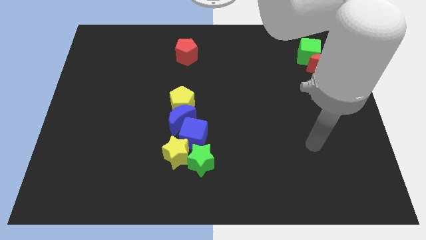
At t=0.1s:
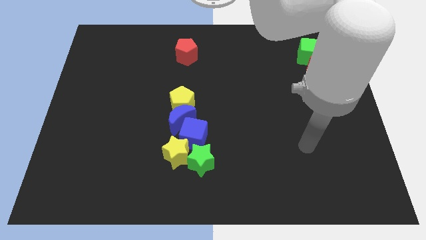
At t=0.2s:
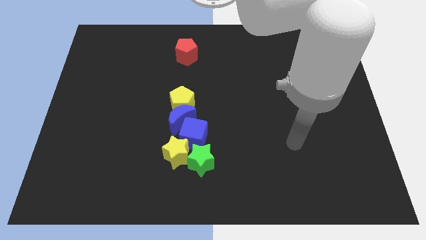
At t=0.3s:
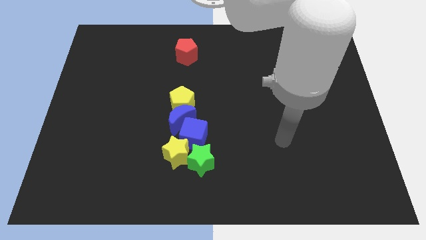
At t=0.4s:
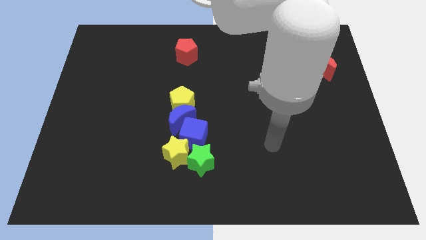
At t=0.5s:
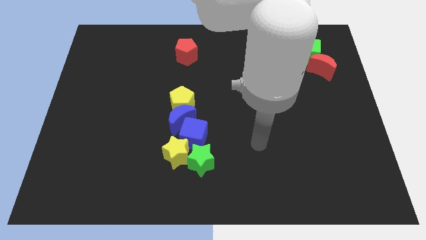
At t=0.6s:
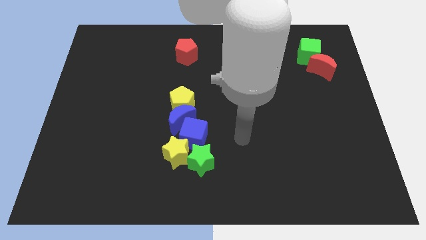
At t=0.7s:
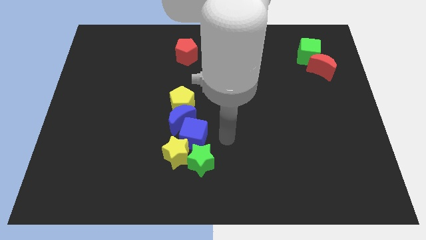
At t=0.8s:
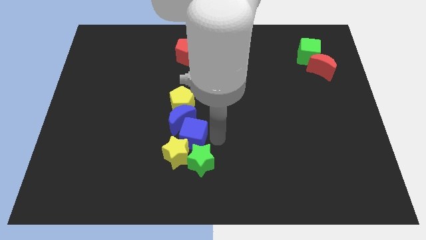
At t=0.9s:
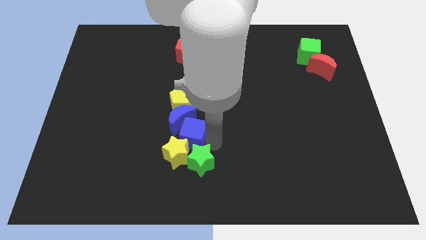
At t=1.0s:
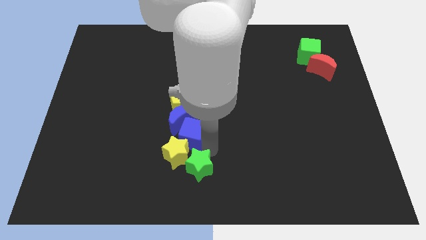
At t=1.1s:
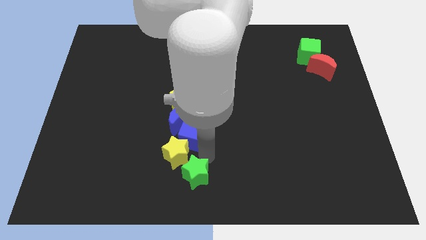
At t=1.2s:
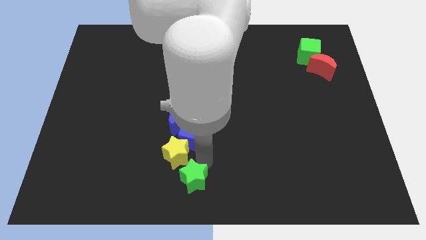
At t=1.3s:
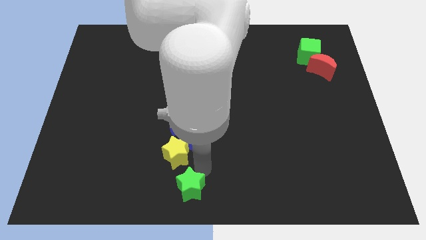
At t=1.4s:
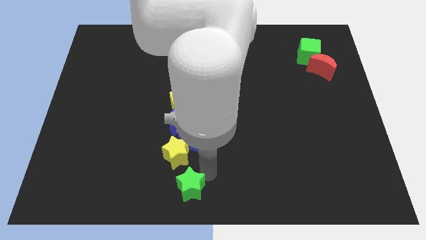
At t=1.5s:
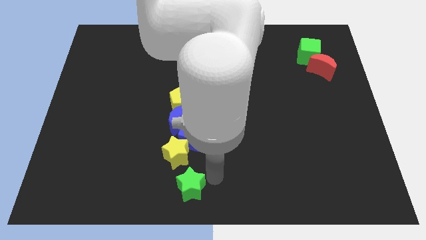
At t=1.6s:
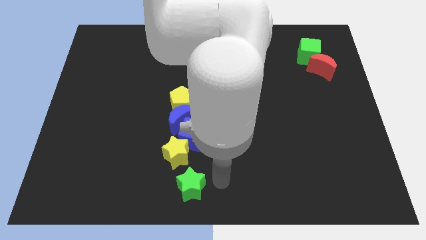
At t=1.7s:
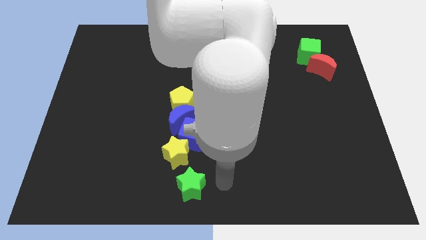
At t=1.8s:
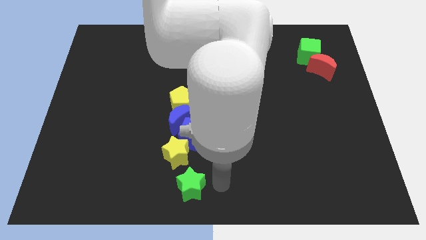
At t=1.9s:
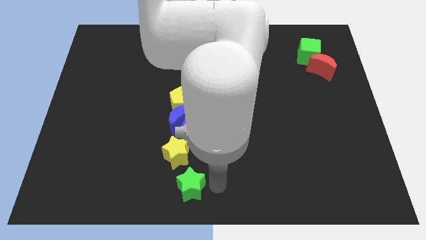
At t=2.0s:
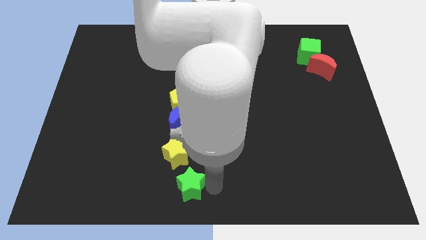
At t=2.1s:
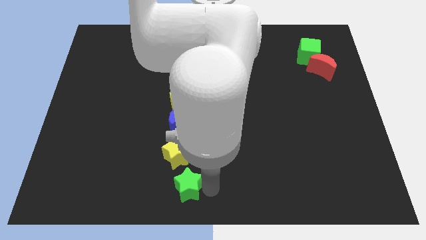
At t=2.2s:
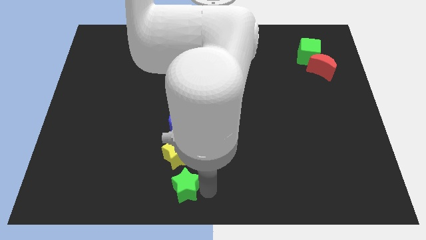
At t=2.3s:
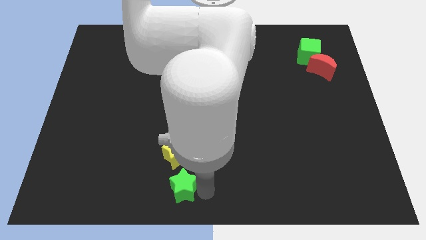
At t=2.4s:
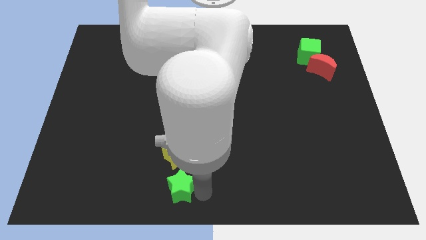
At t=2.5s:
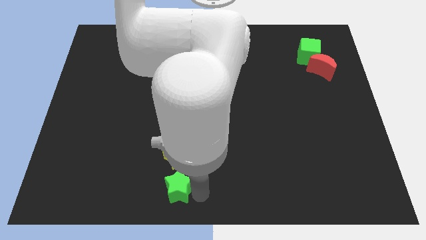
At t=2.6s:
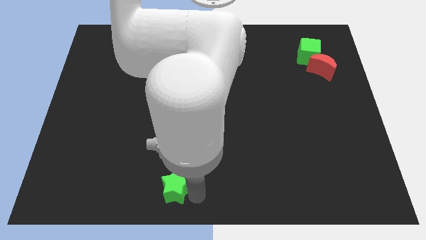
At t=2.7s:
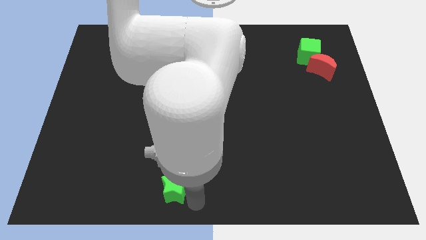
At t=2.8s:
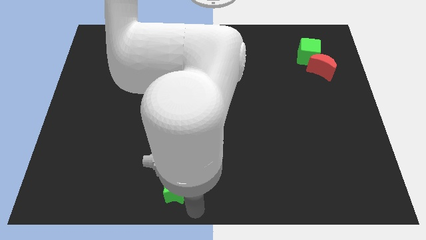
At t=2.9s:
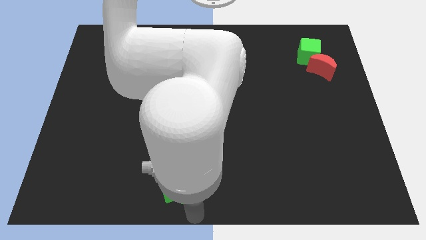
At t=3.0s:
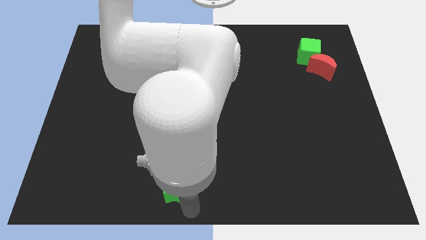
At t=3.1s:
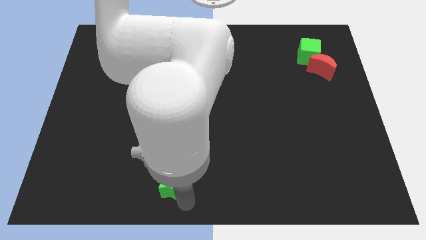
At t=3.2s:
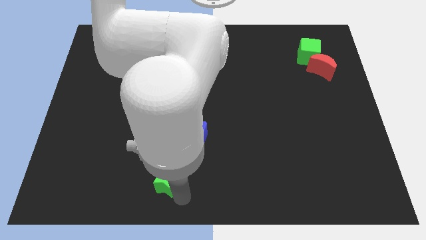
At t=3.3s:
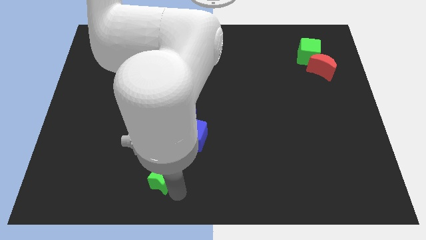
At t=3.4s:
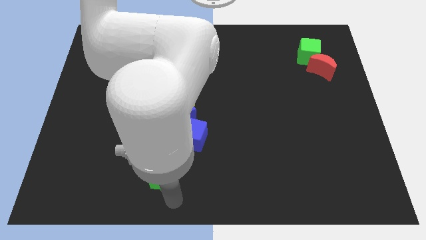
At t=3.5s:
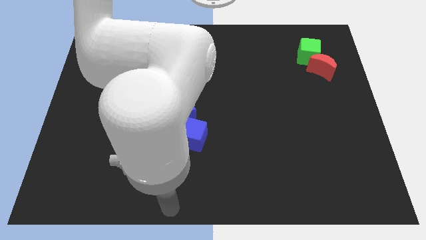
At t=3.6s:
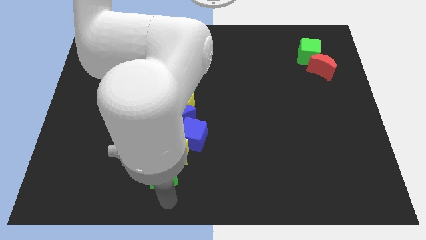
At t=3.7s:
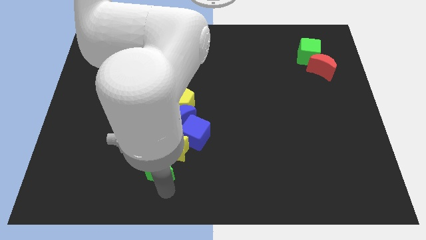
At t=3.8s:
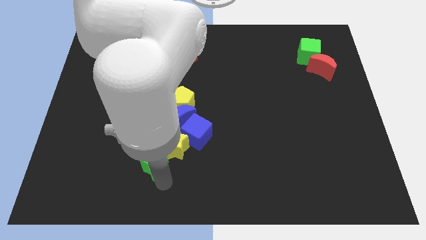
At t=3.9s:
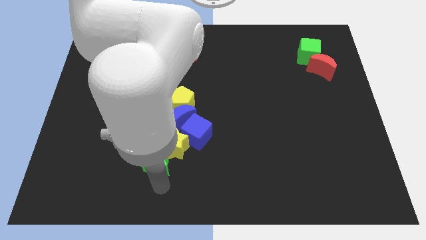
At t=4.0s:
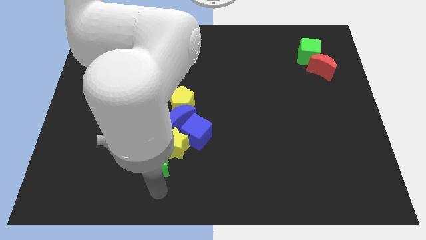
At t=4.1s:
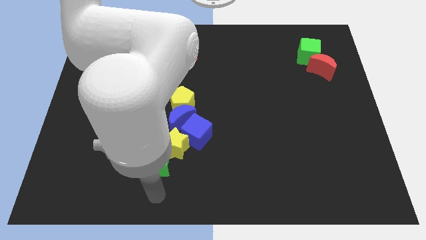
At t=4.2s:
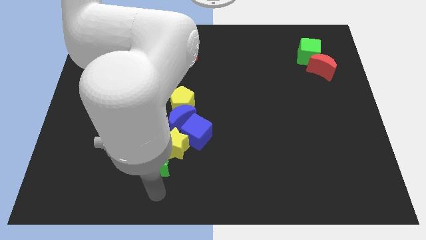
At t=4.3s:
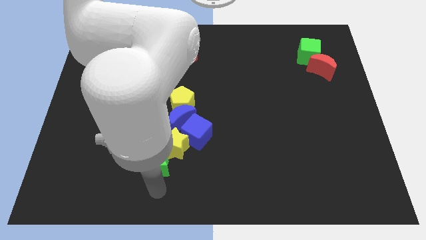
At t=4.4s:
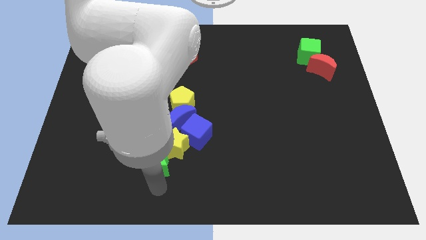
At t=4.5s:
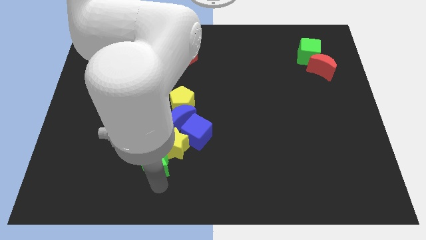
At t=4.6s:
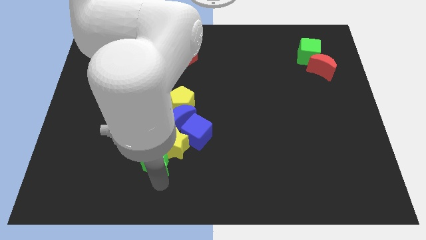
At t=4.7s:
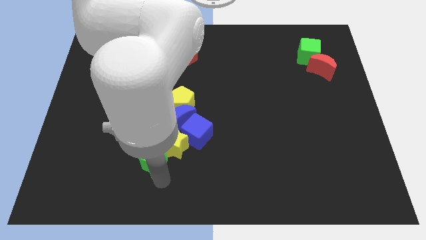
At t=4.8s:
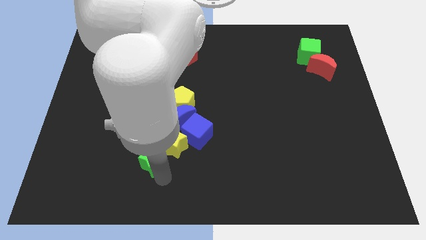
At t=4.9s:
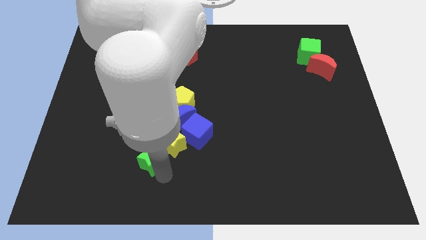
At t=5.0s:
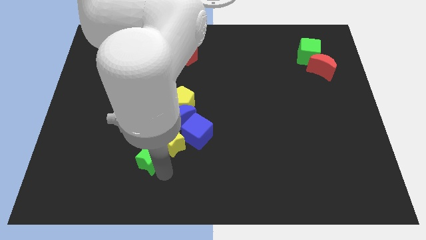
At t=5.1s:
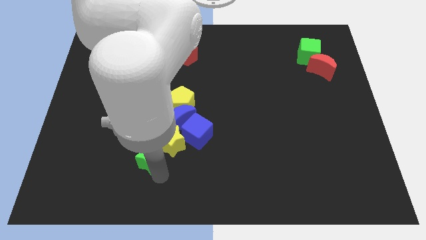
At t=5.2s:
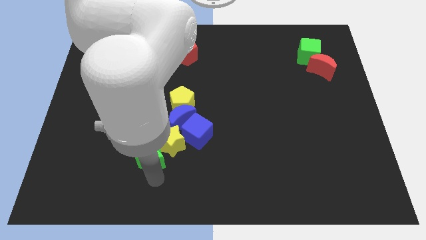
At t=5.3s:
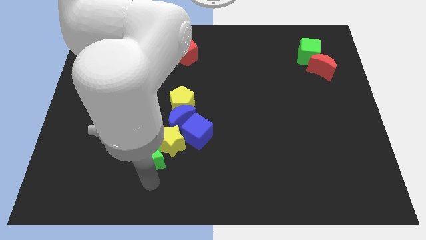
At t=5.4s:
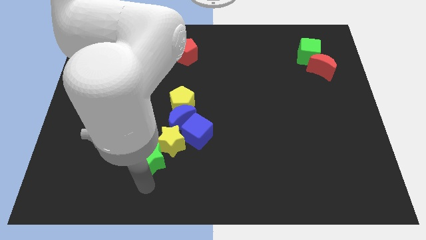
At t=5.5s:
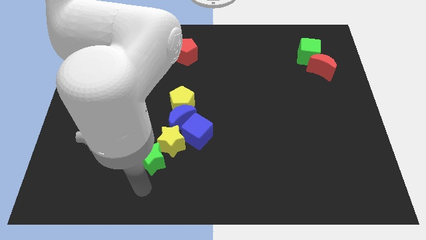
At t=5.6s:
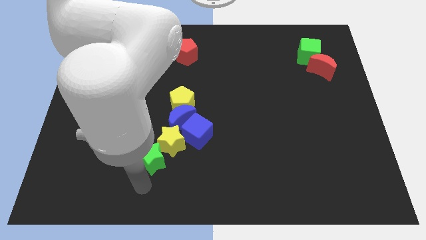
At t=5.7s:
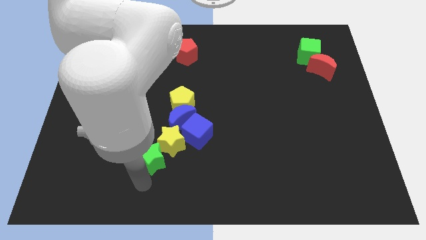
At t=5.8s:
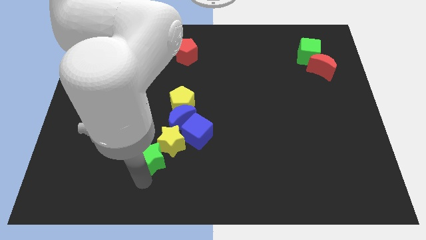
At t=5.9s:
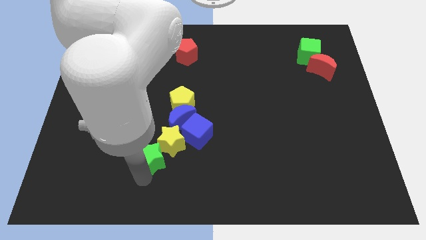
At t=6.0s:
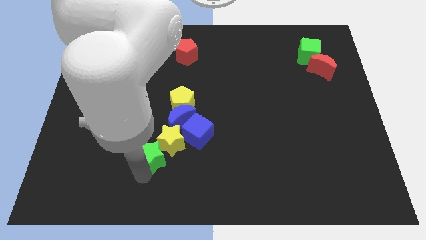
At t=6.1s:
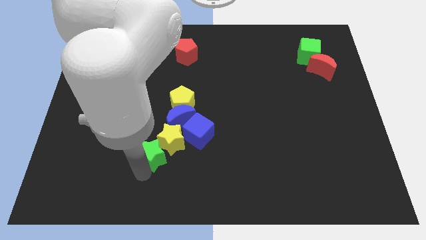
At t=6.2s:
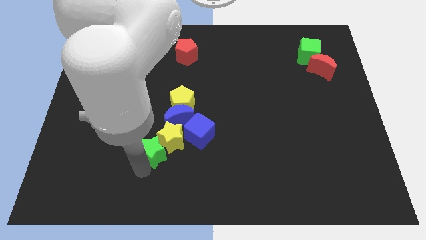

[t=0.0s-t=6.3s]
move the green star diagonally up and left somewhat

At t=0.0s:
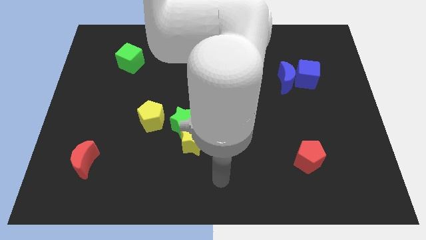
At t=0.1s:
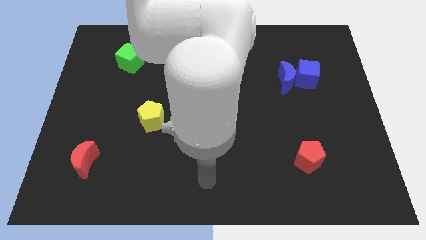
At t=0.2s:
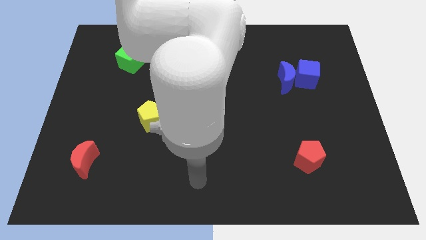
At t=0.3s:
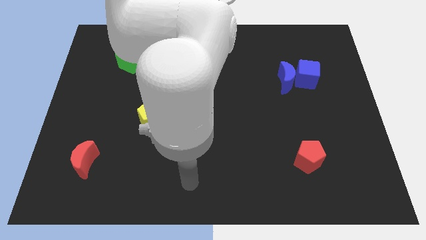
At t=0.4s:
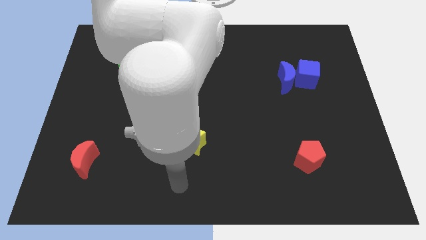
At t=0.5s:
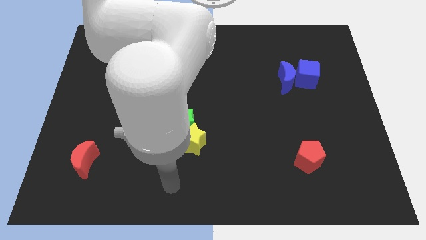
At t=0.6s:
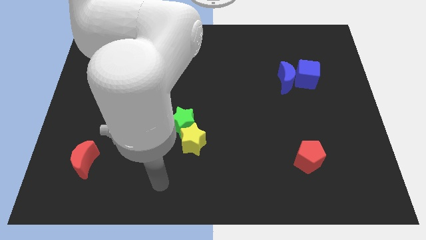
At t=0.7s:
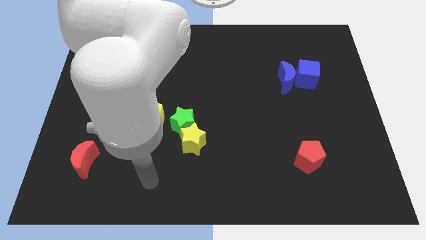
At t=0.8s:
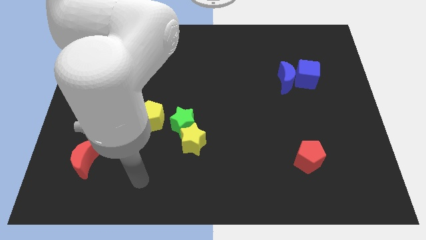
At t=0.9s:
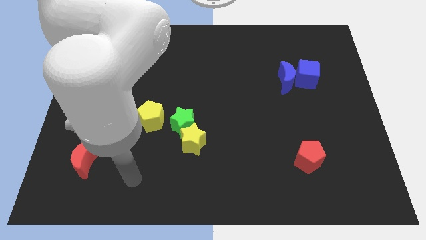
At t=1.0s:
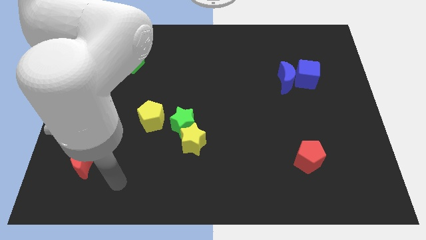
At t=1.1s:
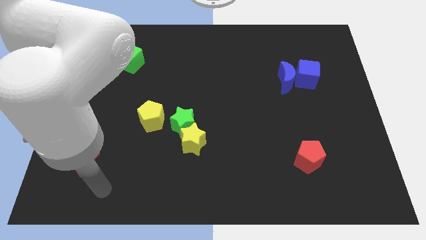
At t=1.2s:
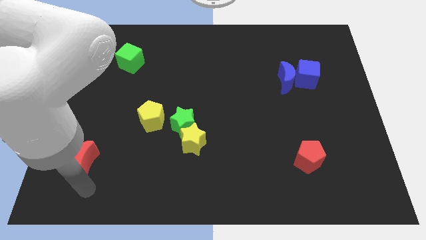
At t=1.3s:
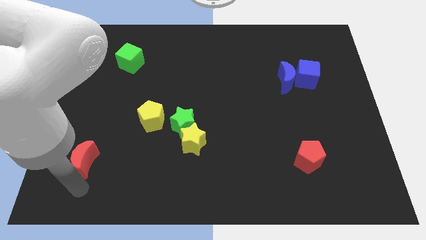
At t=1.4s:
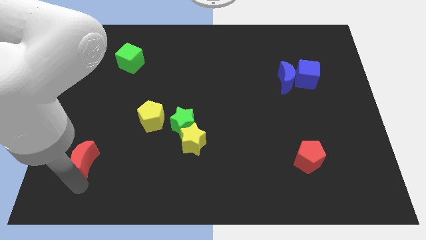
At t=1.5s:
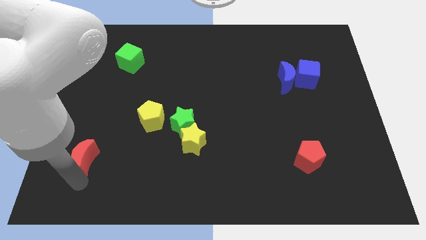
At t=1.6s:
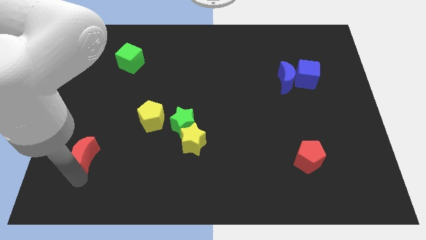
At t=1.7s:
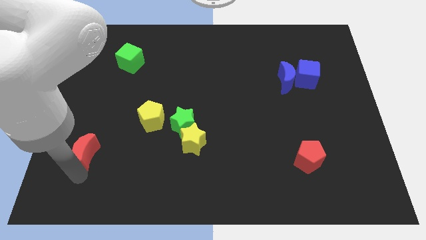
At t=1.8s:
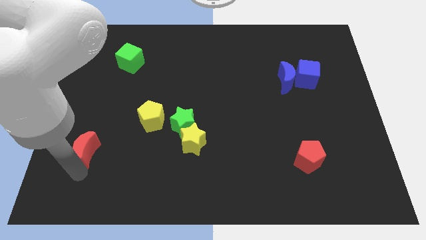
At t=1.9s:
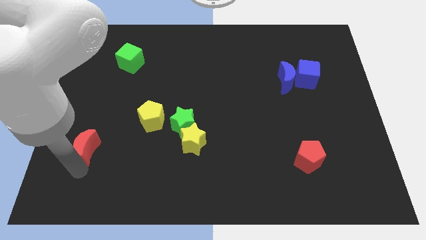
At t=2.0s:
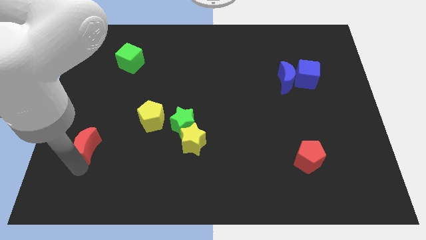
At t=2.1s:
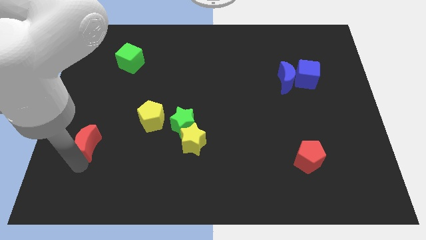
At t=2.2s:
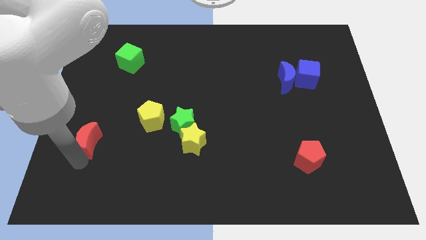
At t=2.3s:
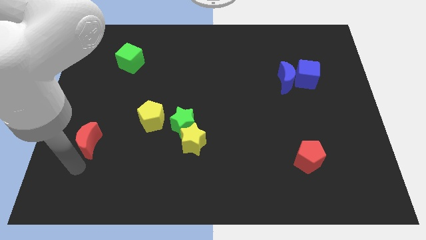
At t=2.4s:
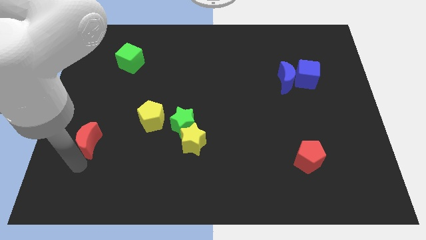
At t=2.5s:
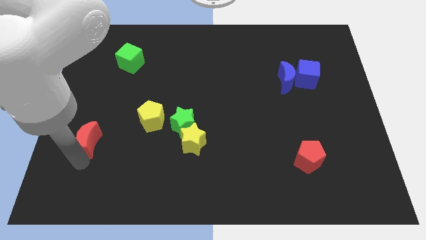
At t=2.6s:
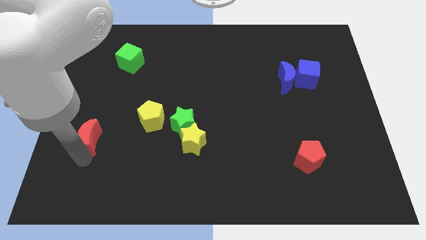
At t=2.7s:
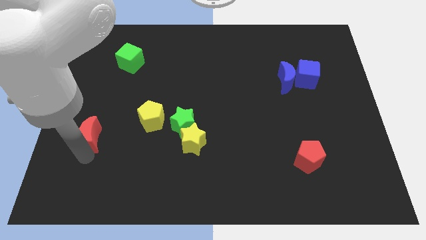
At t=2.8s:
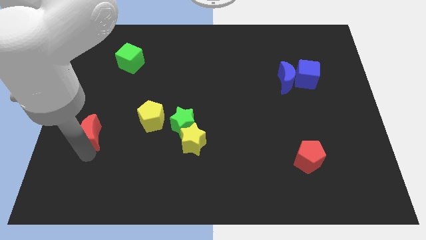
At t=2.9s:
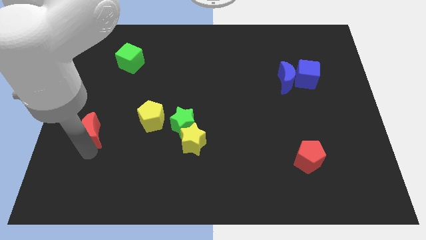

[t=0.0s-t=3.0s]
slide the red moon somewhat upwards
